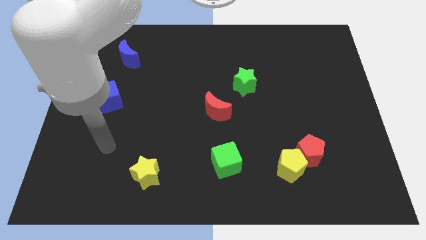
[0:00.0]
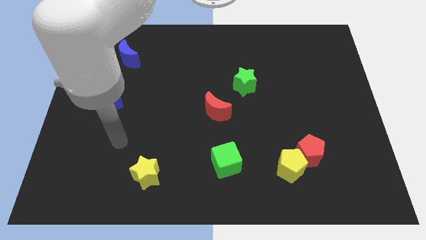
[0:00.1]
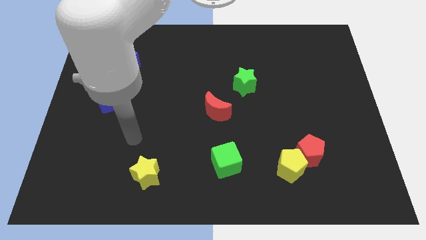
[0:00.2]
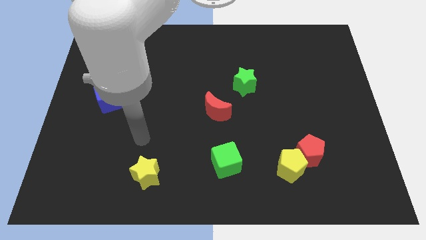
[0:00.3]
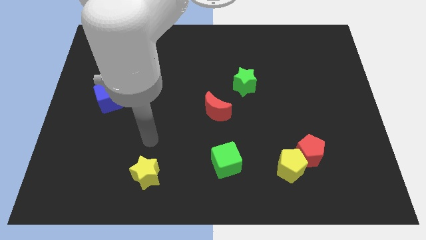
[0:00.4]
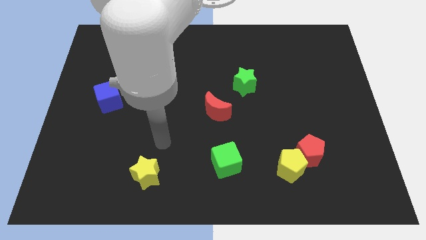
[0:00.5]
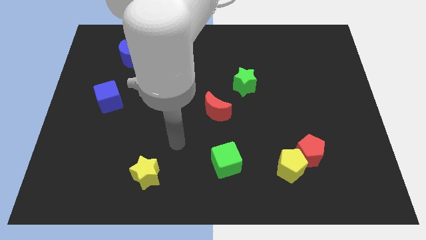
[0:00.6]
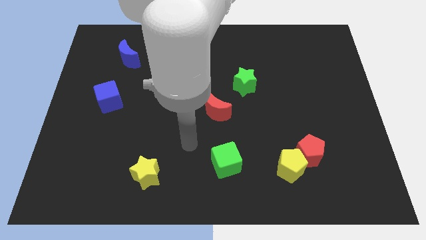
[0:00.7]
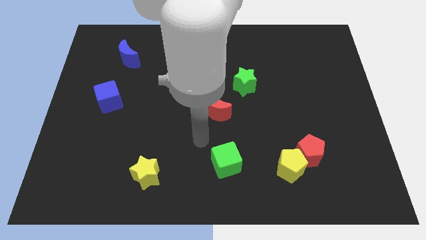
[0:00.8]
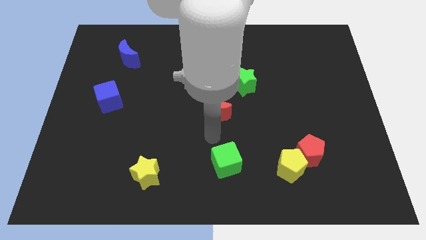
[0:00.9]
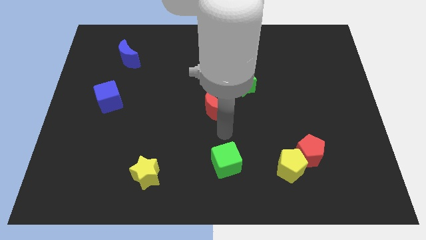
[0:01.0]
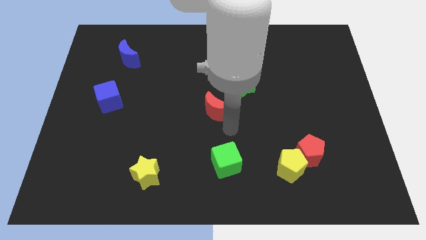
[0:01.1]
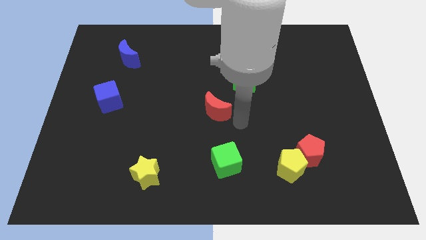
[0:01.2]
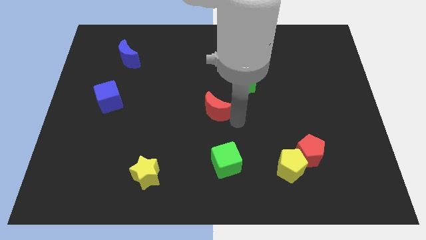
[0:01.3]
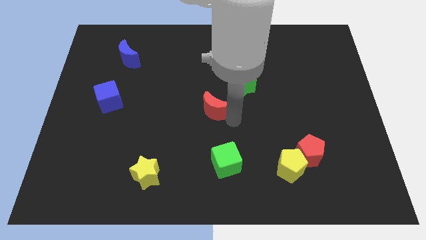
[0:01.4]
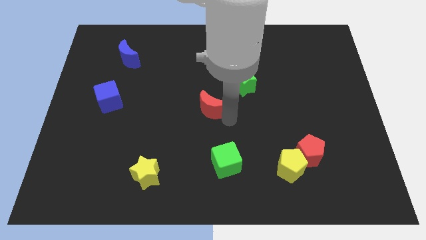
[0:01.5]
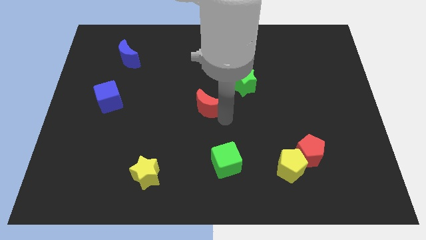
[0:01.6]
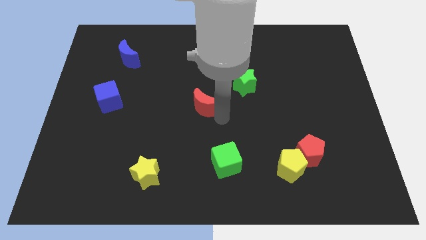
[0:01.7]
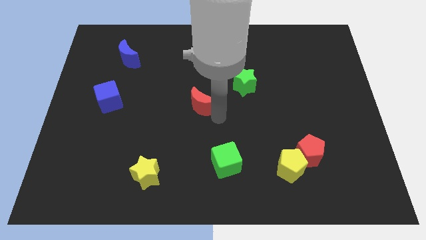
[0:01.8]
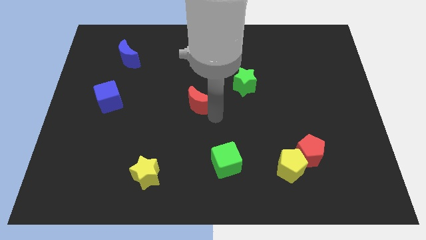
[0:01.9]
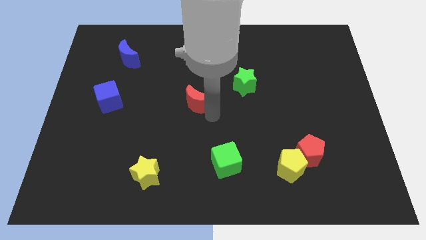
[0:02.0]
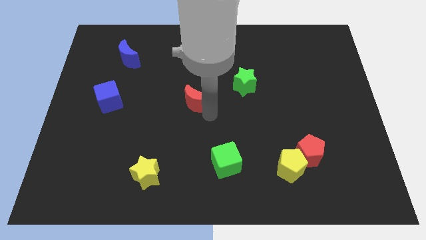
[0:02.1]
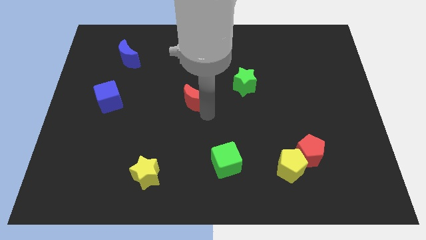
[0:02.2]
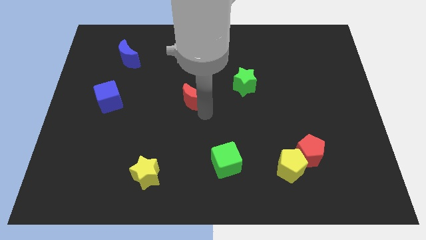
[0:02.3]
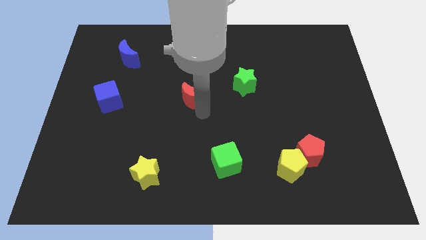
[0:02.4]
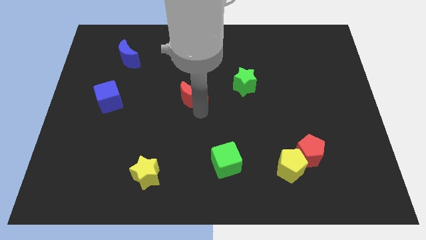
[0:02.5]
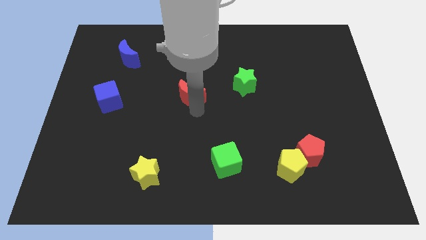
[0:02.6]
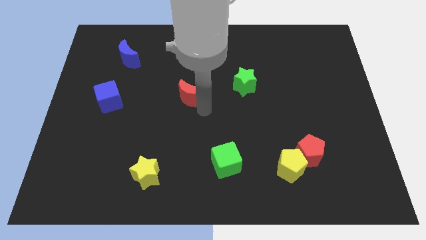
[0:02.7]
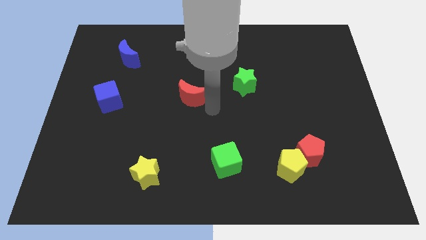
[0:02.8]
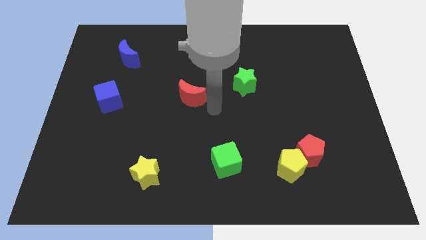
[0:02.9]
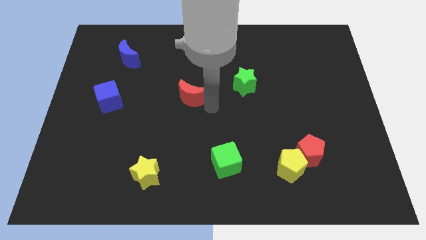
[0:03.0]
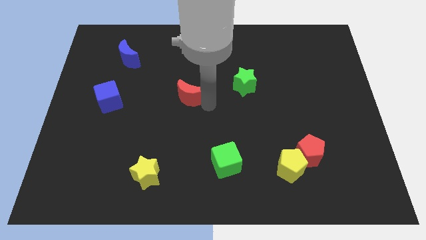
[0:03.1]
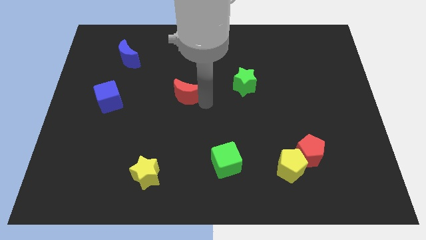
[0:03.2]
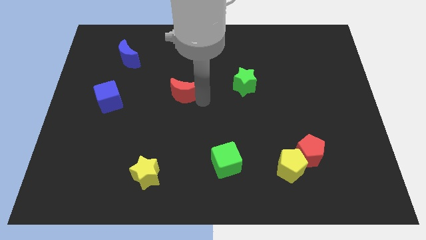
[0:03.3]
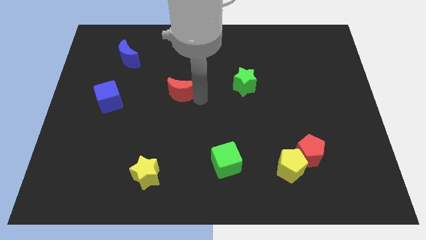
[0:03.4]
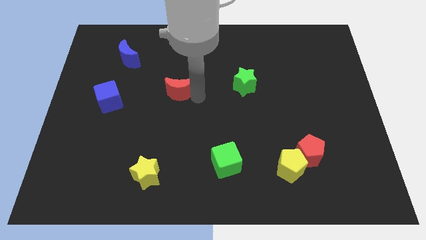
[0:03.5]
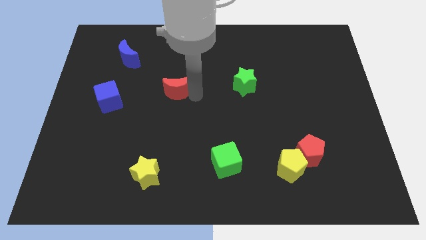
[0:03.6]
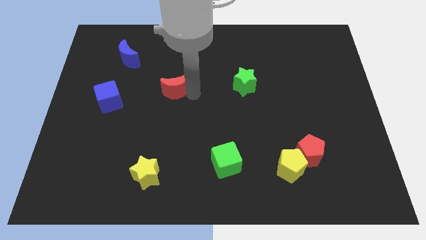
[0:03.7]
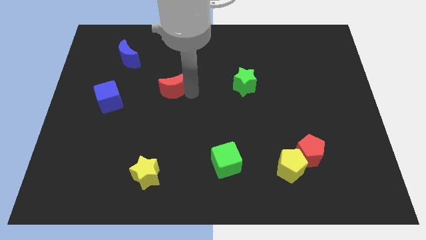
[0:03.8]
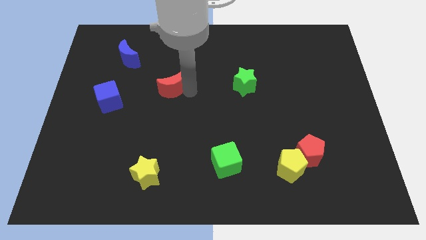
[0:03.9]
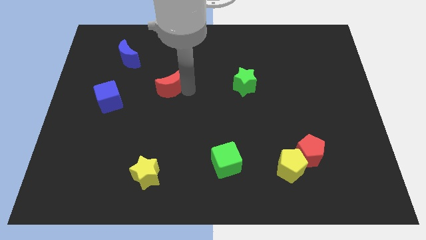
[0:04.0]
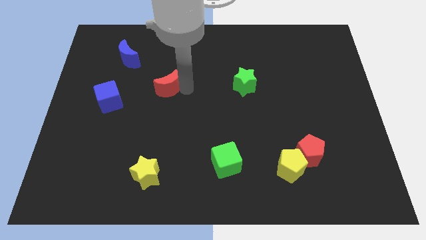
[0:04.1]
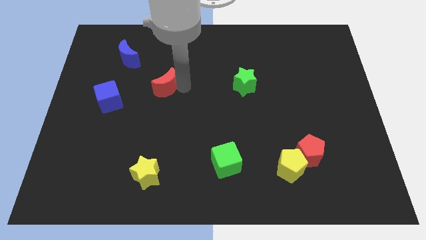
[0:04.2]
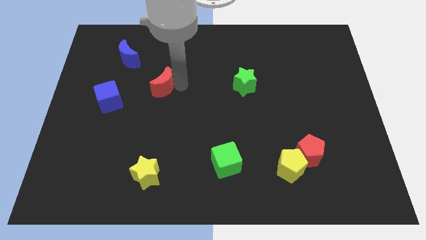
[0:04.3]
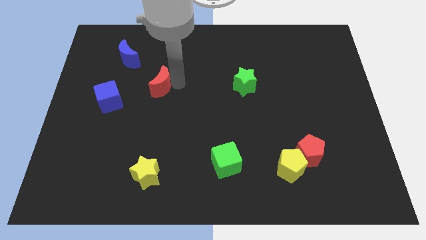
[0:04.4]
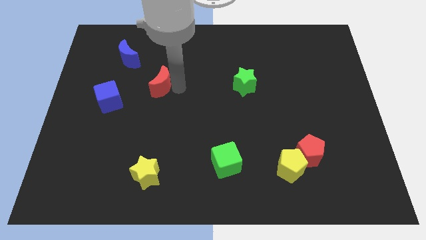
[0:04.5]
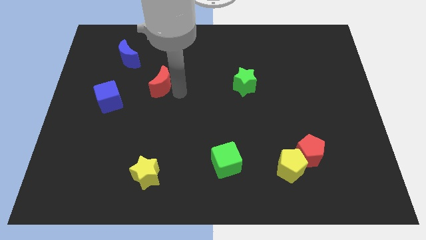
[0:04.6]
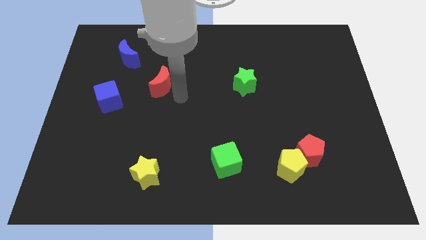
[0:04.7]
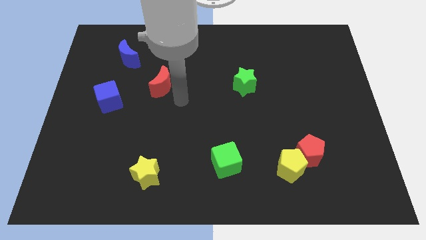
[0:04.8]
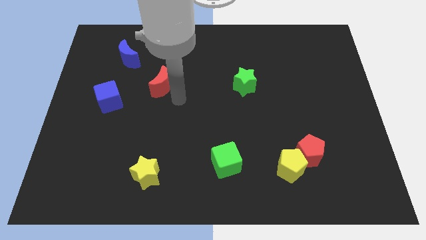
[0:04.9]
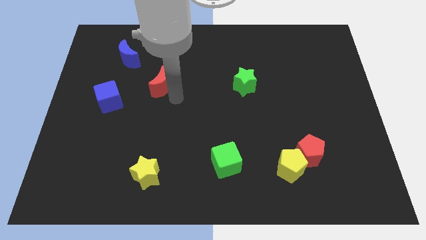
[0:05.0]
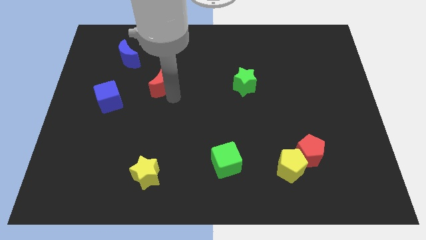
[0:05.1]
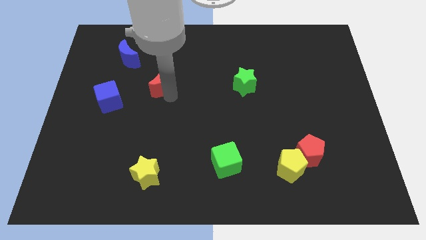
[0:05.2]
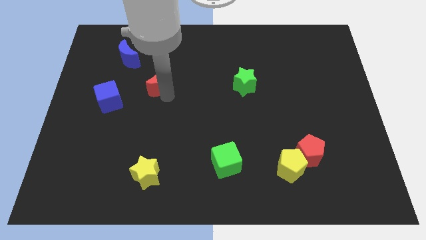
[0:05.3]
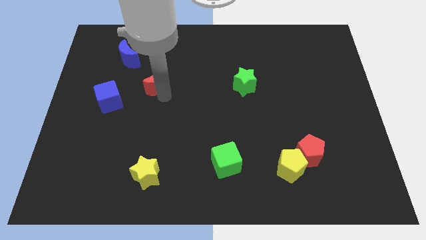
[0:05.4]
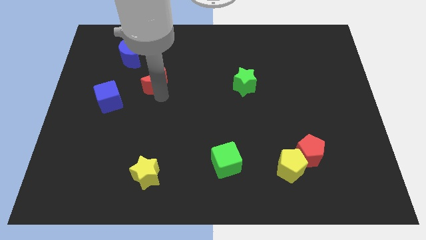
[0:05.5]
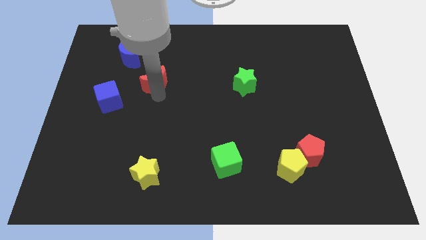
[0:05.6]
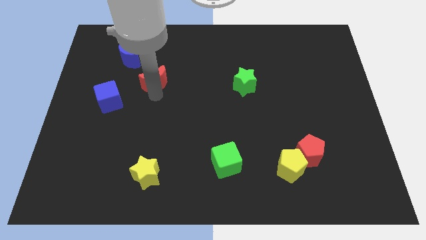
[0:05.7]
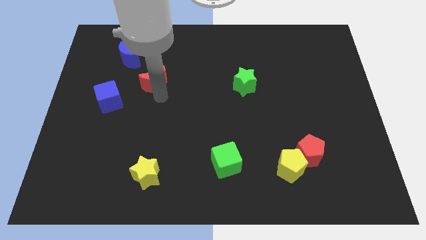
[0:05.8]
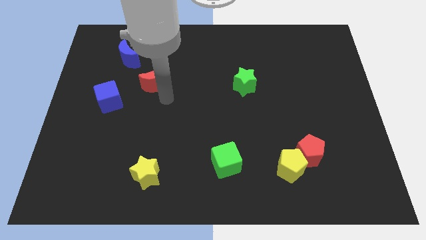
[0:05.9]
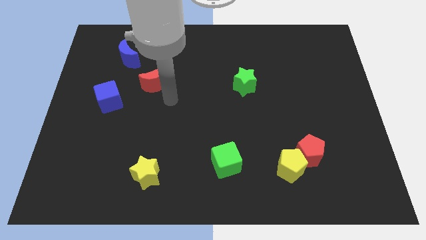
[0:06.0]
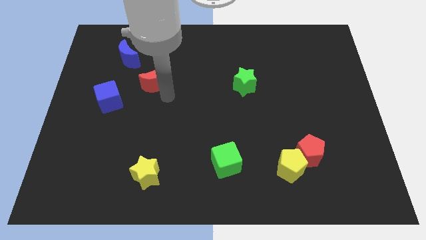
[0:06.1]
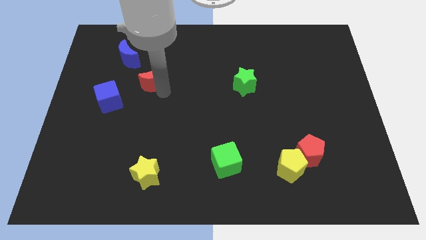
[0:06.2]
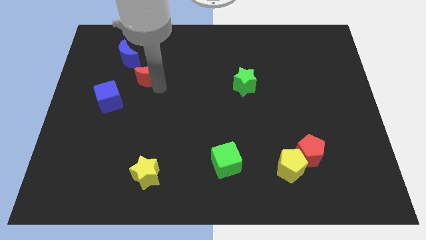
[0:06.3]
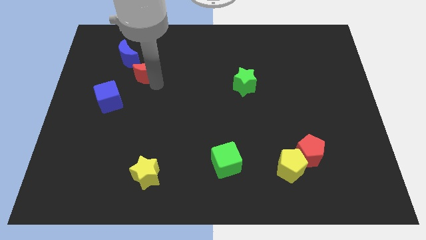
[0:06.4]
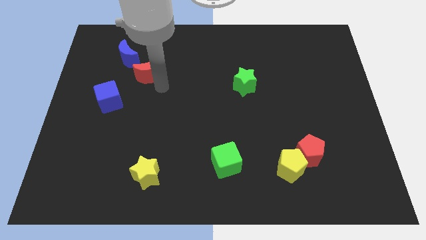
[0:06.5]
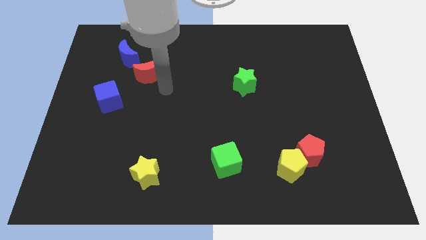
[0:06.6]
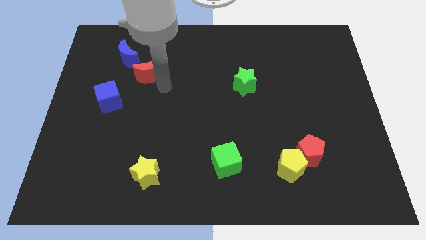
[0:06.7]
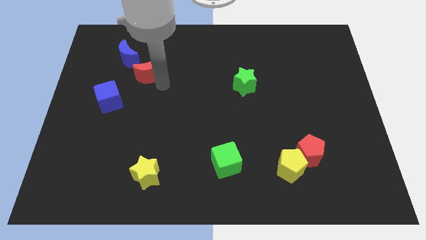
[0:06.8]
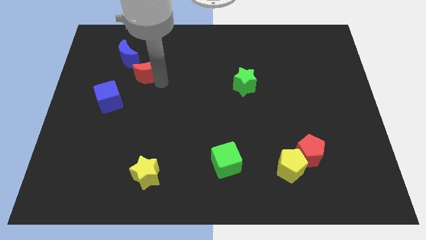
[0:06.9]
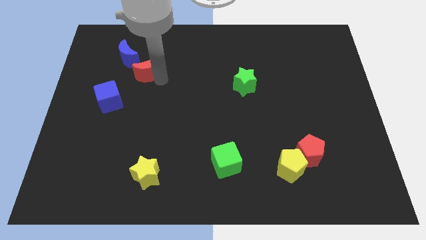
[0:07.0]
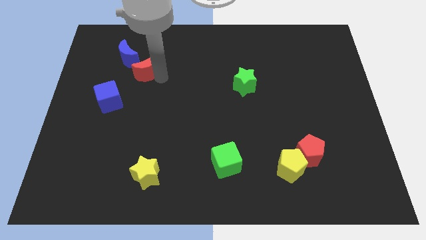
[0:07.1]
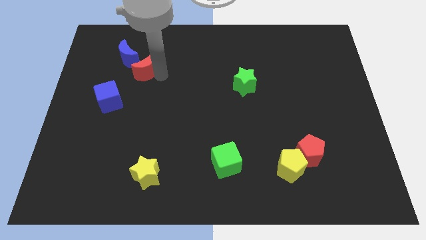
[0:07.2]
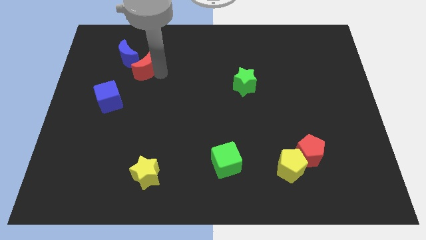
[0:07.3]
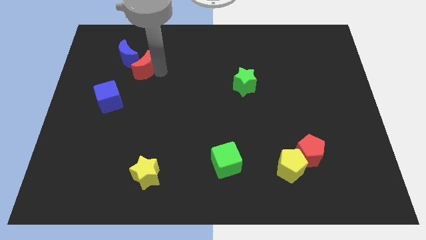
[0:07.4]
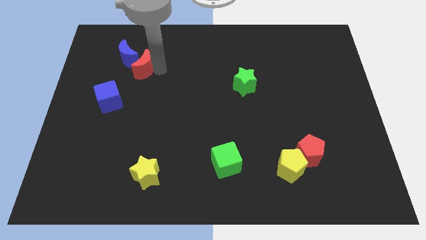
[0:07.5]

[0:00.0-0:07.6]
move the red moon close to the blue moon

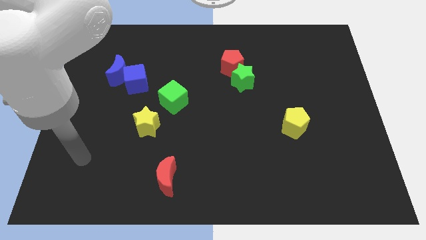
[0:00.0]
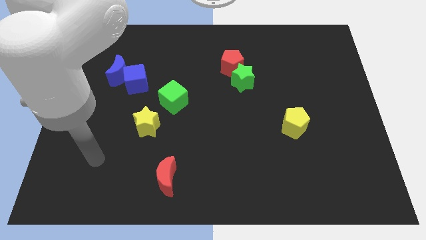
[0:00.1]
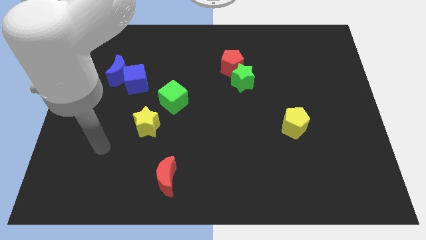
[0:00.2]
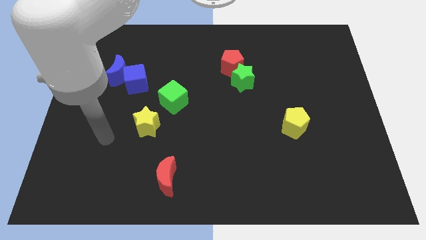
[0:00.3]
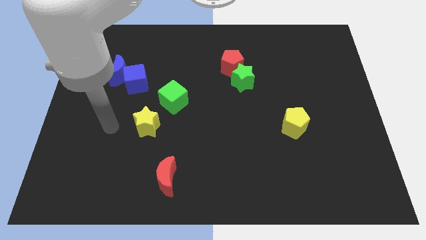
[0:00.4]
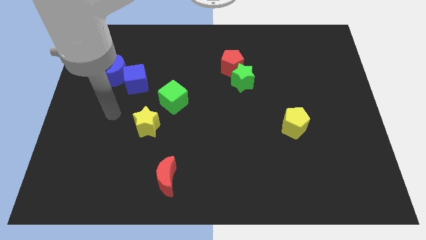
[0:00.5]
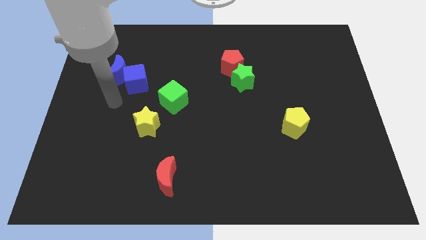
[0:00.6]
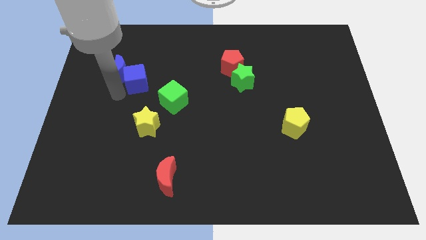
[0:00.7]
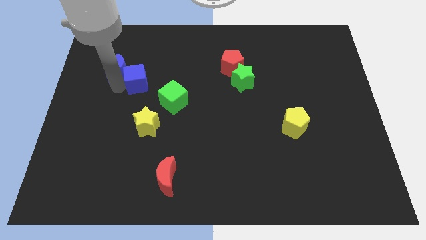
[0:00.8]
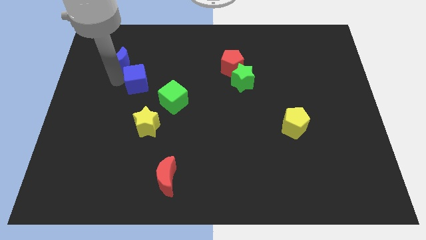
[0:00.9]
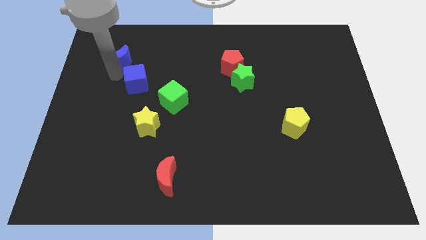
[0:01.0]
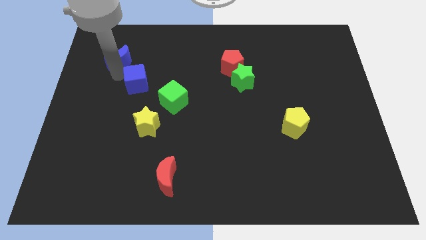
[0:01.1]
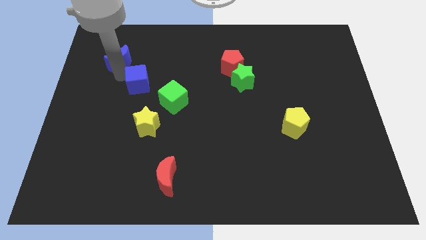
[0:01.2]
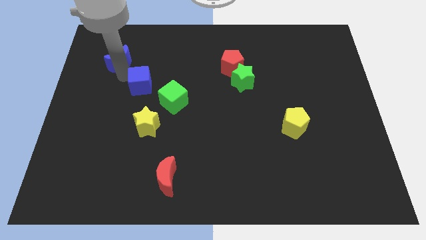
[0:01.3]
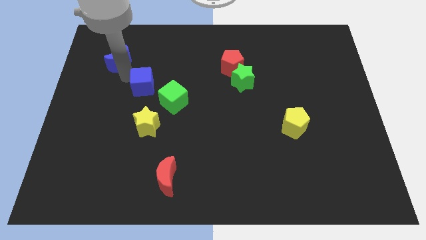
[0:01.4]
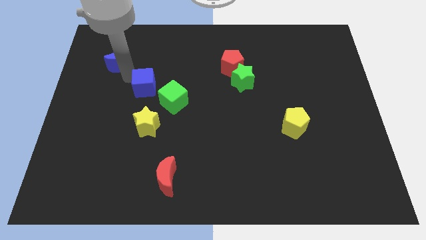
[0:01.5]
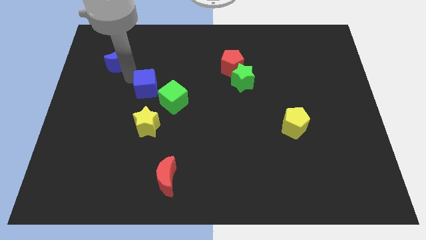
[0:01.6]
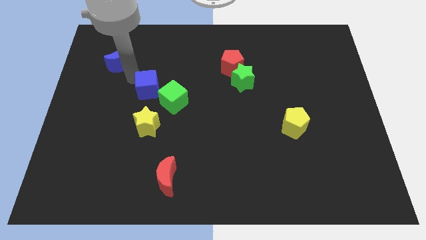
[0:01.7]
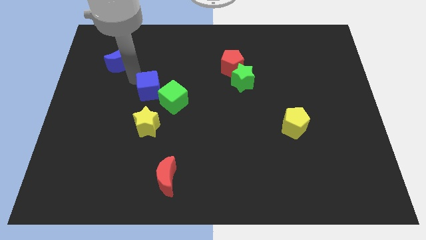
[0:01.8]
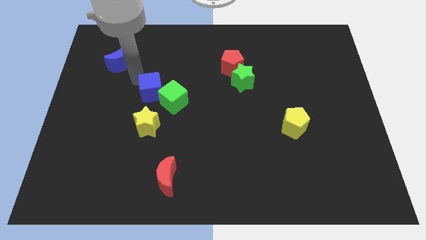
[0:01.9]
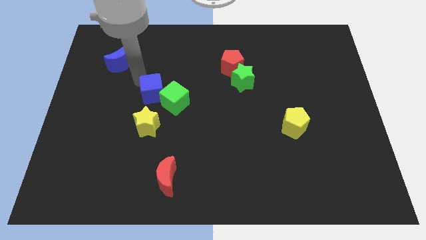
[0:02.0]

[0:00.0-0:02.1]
slide the blue cube next to the green cube
